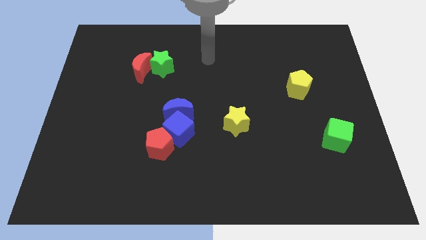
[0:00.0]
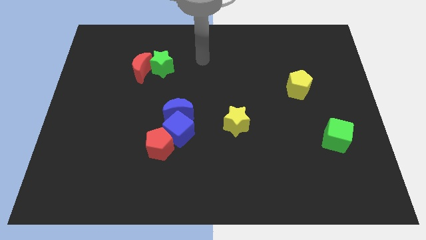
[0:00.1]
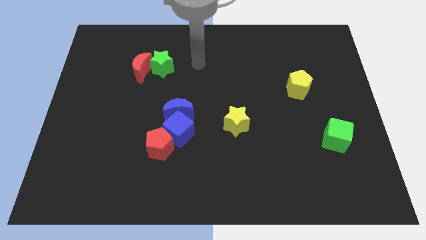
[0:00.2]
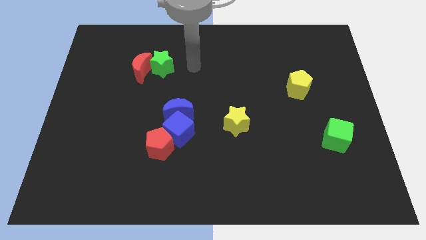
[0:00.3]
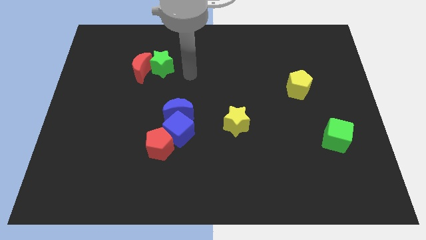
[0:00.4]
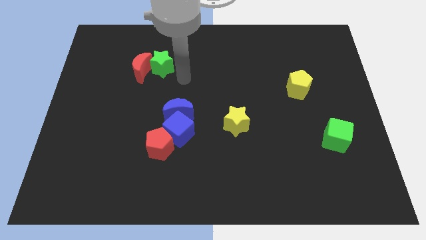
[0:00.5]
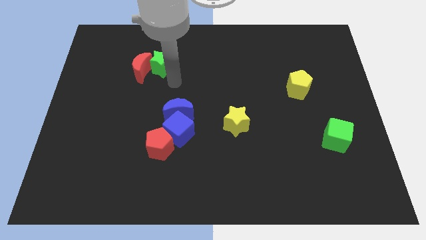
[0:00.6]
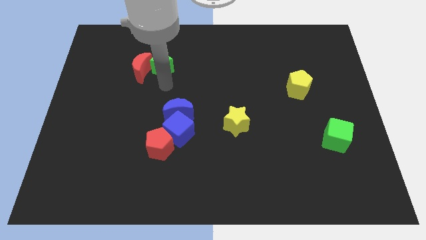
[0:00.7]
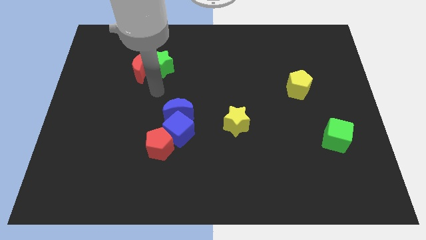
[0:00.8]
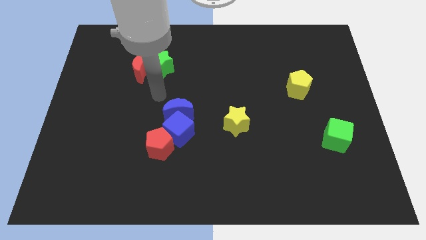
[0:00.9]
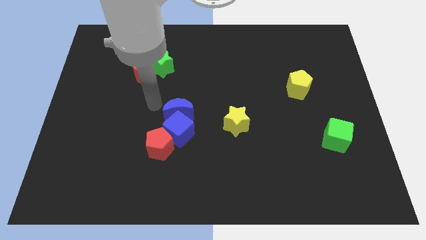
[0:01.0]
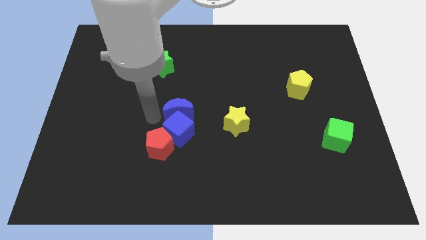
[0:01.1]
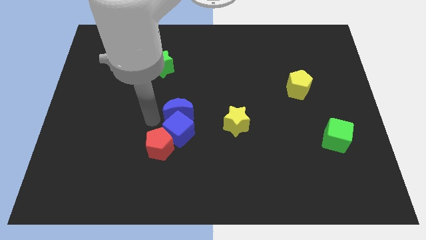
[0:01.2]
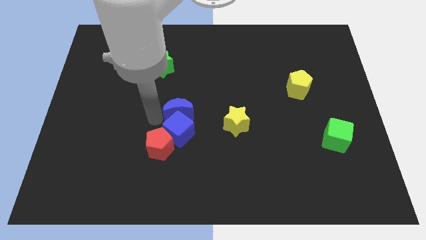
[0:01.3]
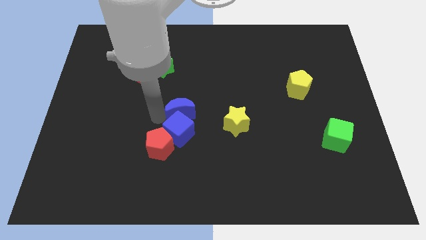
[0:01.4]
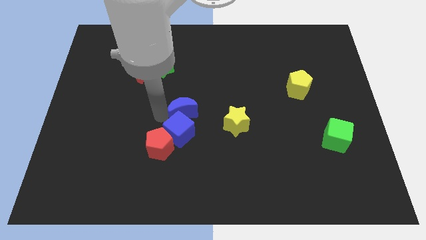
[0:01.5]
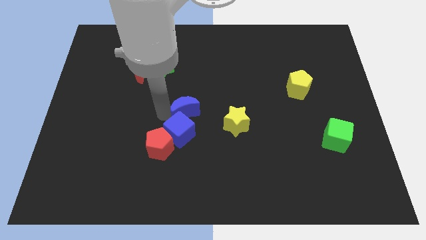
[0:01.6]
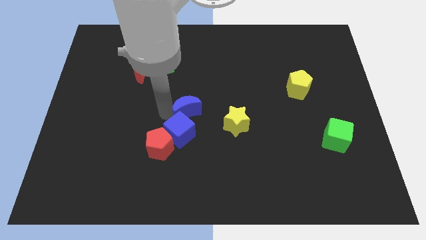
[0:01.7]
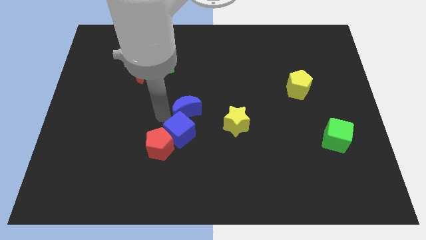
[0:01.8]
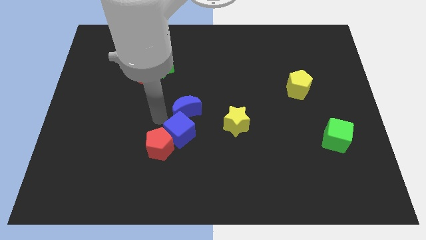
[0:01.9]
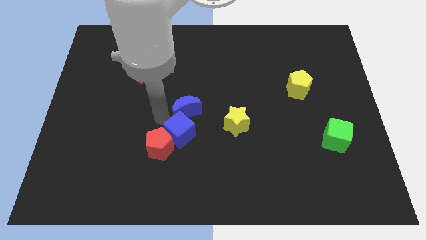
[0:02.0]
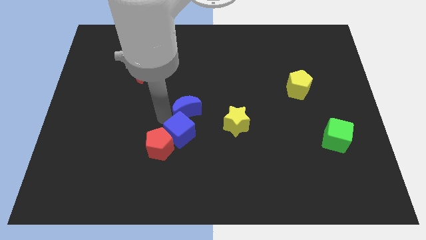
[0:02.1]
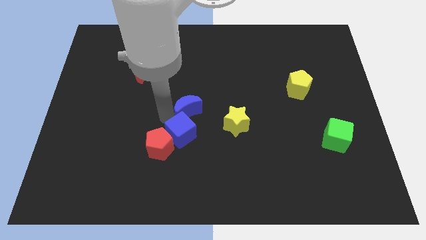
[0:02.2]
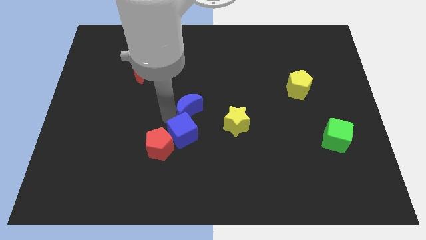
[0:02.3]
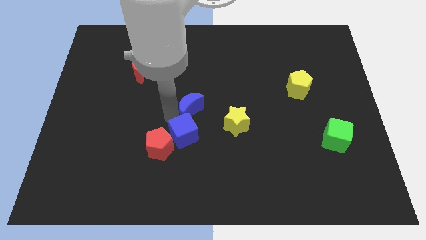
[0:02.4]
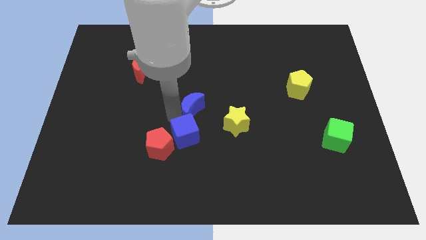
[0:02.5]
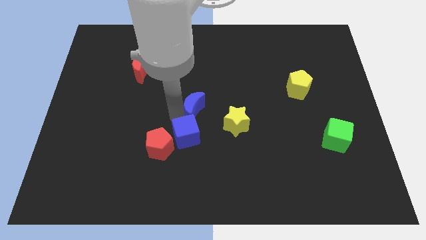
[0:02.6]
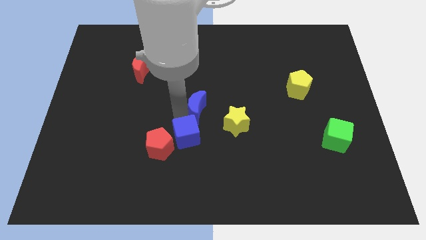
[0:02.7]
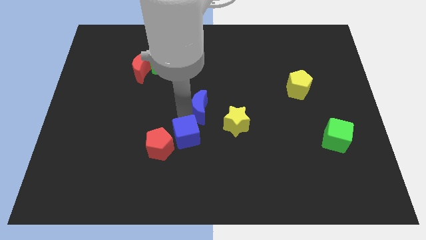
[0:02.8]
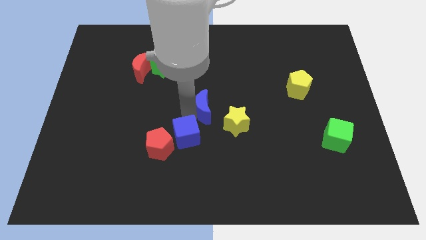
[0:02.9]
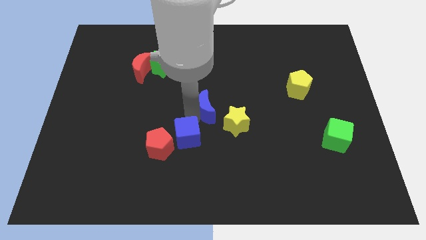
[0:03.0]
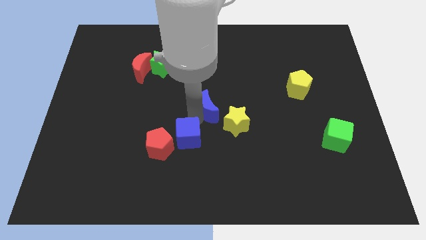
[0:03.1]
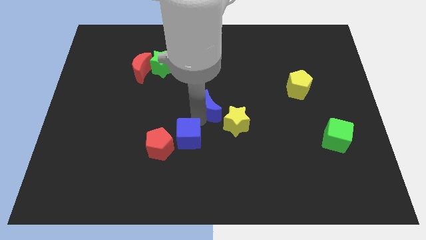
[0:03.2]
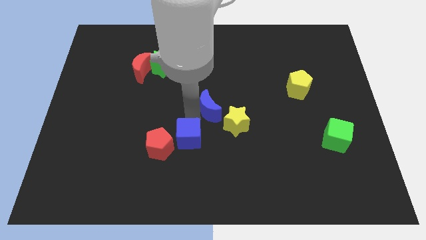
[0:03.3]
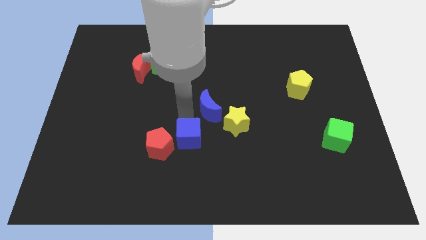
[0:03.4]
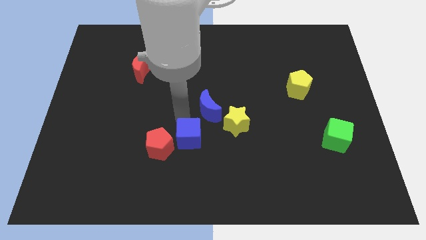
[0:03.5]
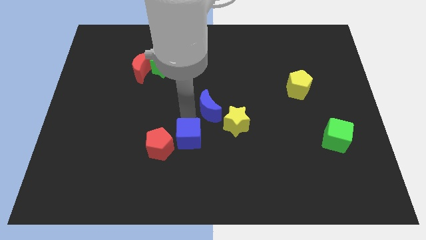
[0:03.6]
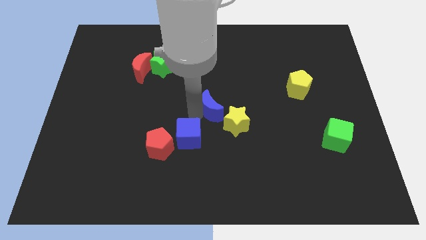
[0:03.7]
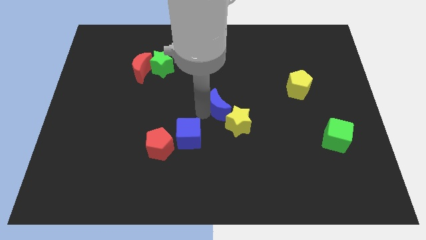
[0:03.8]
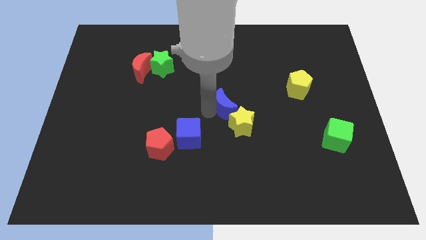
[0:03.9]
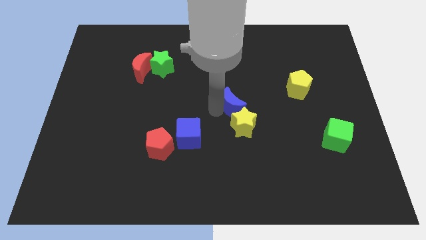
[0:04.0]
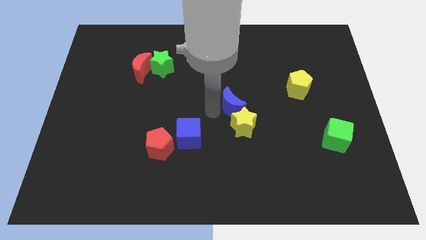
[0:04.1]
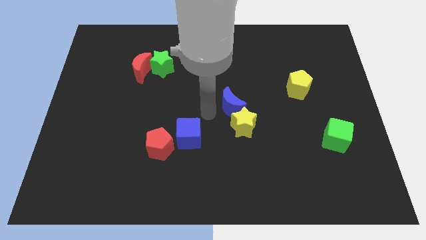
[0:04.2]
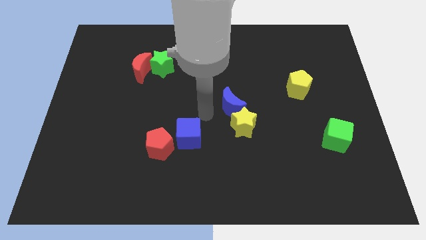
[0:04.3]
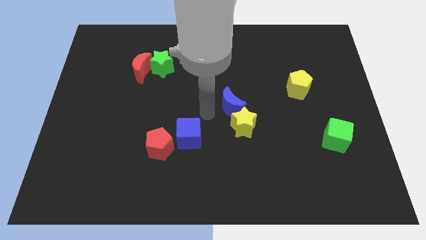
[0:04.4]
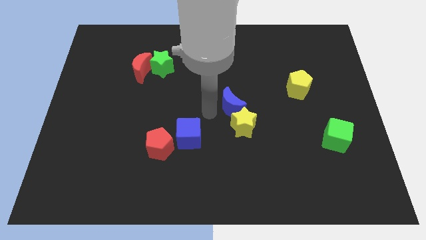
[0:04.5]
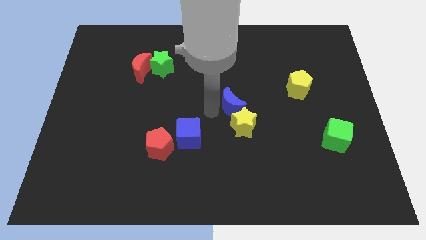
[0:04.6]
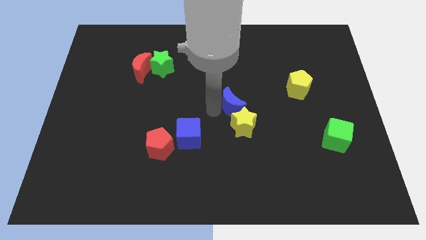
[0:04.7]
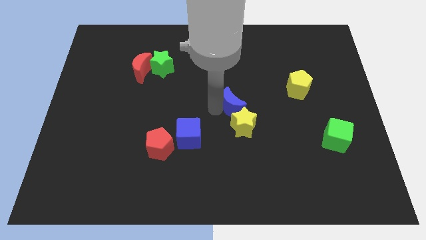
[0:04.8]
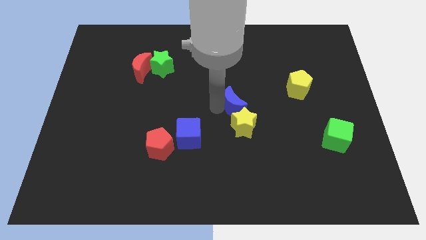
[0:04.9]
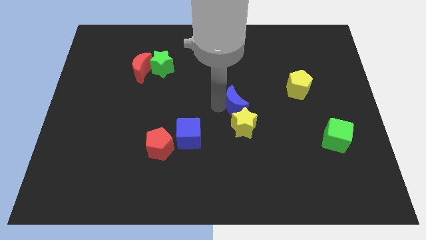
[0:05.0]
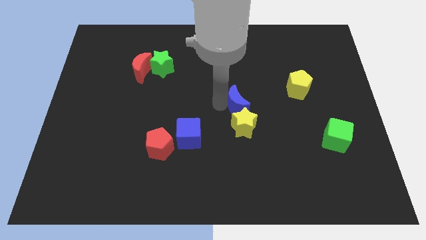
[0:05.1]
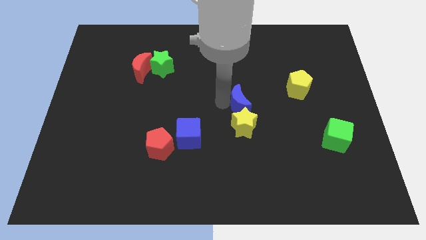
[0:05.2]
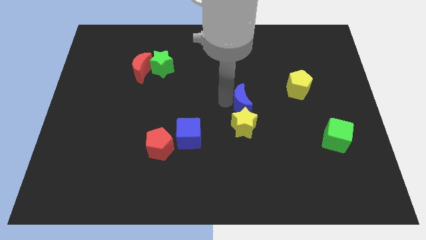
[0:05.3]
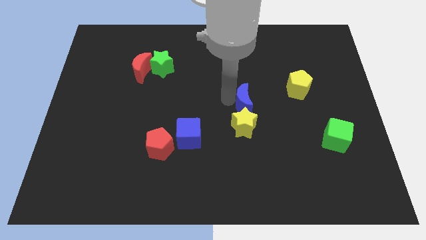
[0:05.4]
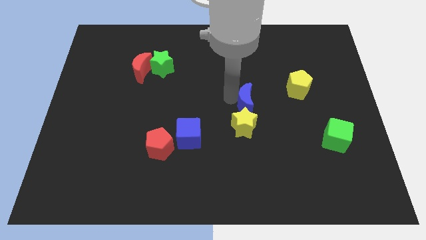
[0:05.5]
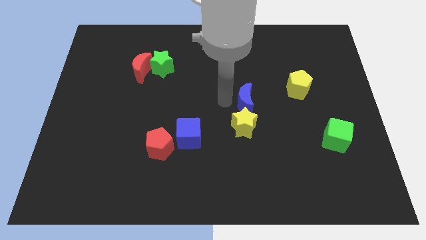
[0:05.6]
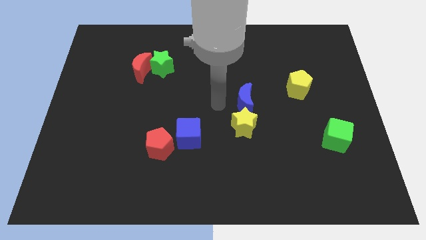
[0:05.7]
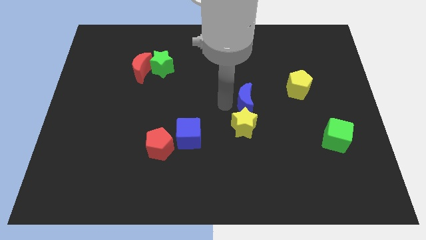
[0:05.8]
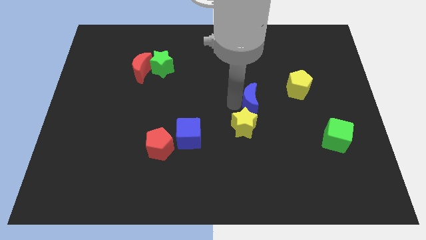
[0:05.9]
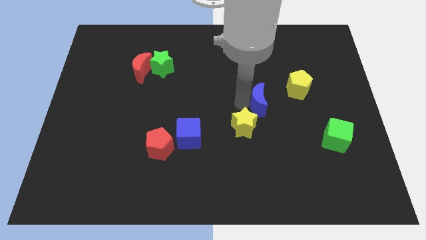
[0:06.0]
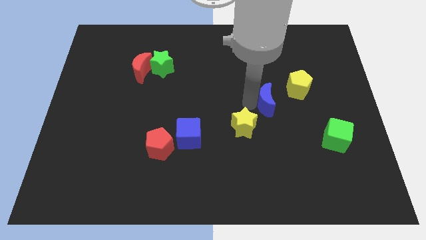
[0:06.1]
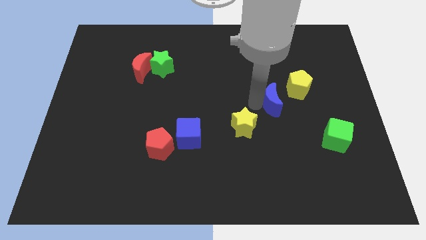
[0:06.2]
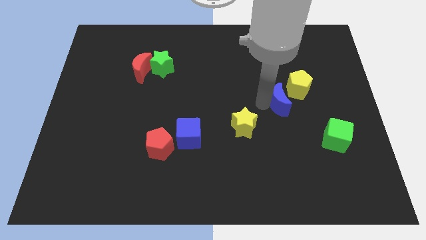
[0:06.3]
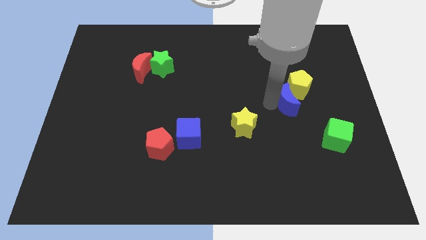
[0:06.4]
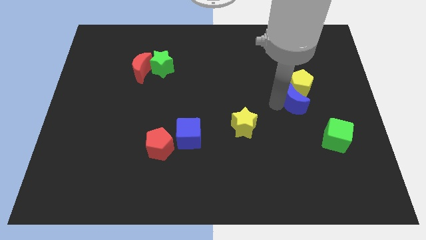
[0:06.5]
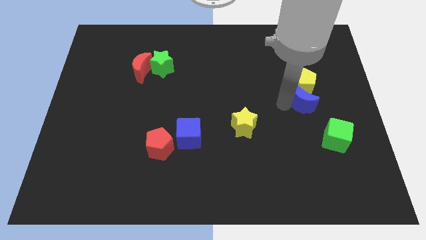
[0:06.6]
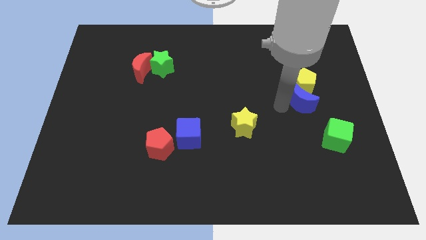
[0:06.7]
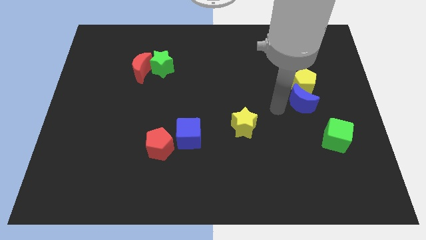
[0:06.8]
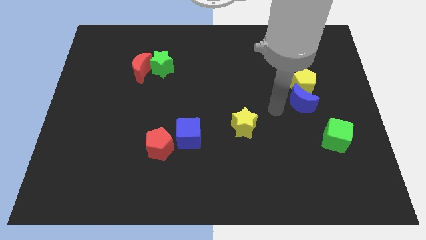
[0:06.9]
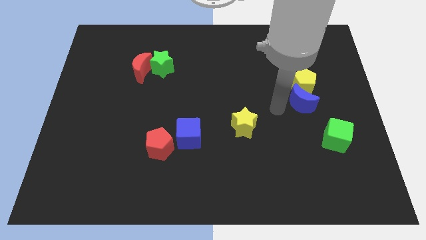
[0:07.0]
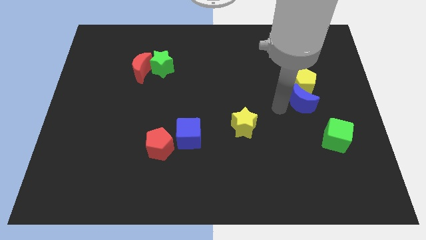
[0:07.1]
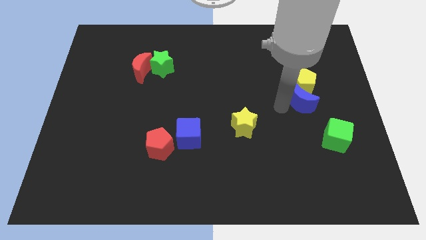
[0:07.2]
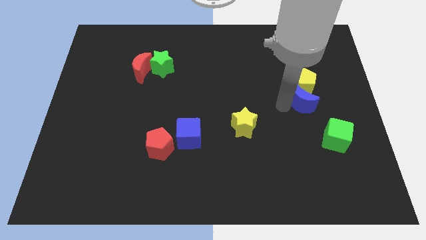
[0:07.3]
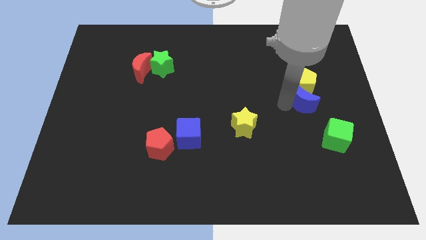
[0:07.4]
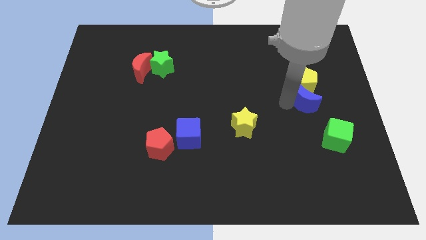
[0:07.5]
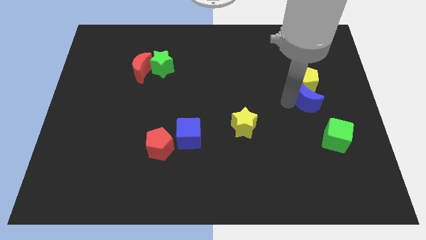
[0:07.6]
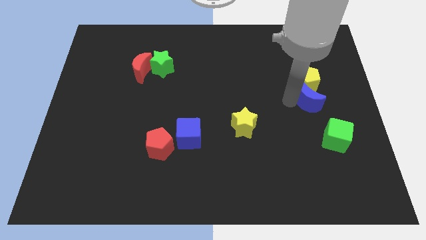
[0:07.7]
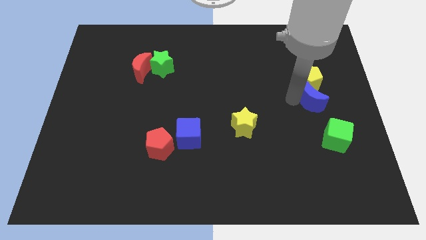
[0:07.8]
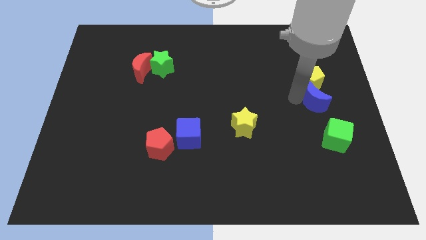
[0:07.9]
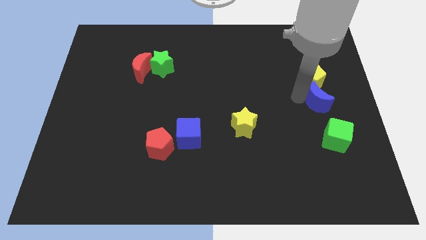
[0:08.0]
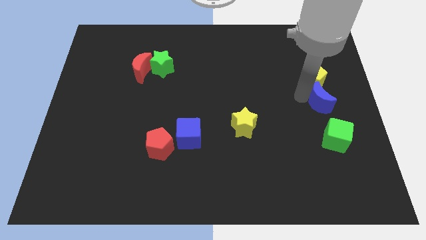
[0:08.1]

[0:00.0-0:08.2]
push the blue moon to the right side
